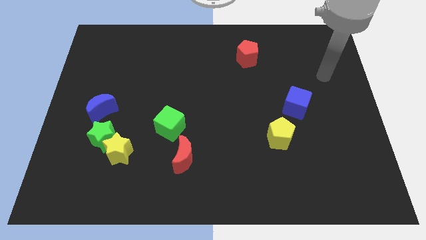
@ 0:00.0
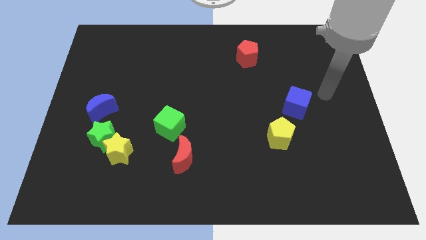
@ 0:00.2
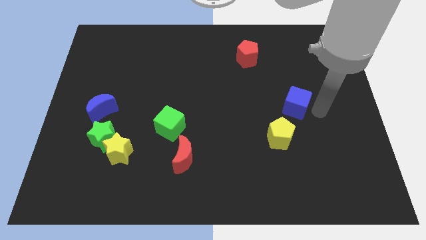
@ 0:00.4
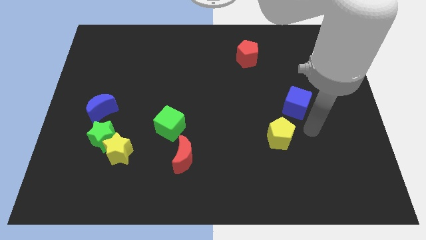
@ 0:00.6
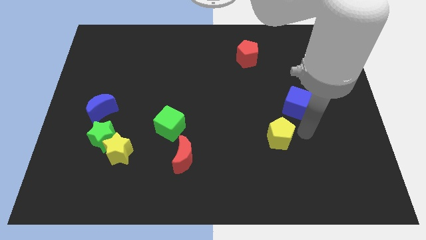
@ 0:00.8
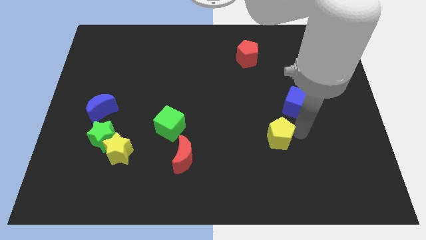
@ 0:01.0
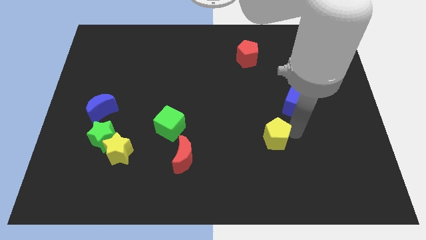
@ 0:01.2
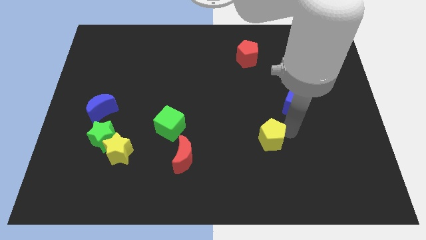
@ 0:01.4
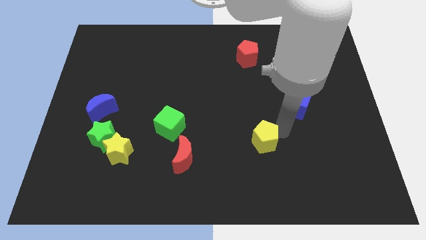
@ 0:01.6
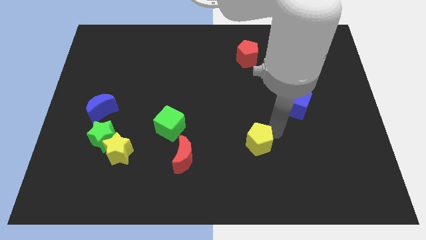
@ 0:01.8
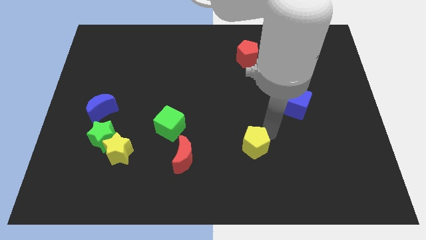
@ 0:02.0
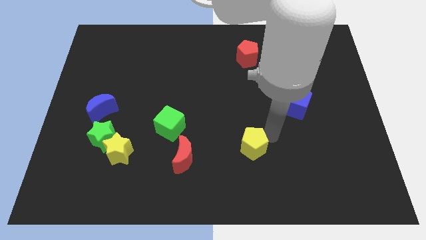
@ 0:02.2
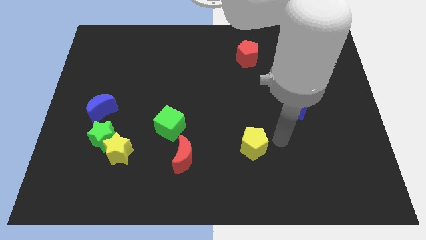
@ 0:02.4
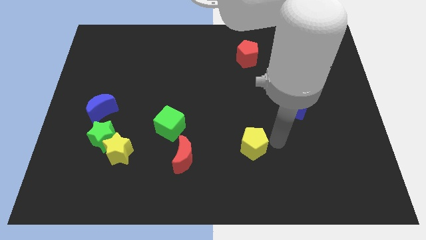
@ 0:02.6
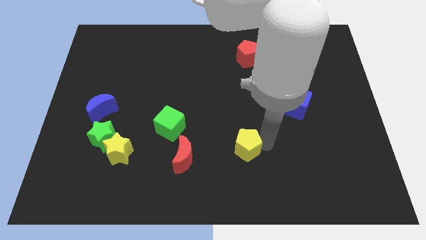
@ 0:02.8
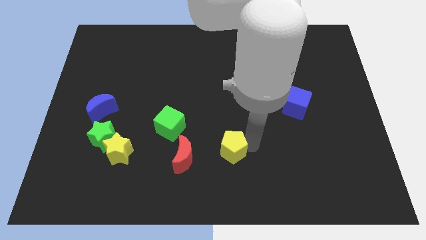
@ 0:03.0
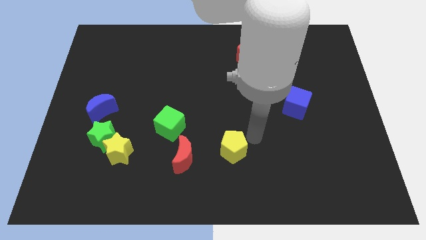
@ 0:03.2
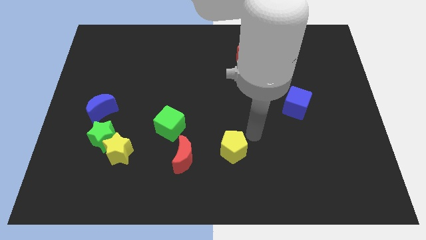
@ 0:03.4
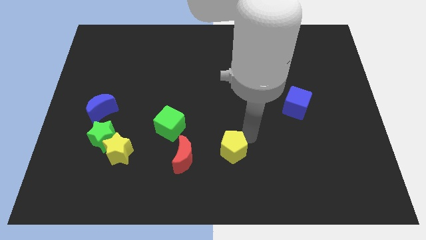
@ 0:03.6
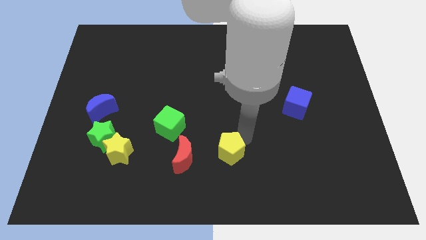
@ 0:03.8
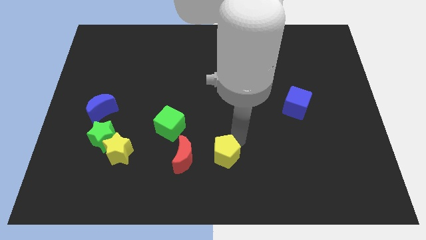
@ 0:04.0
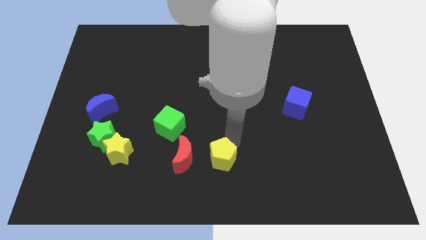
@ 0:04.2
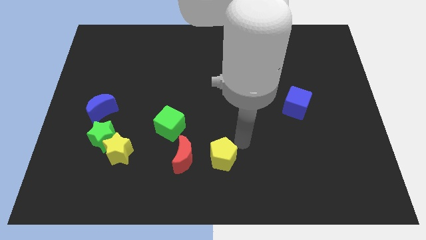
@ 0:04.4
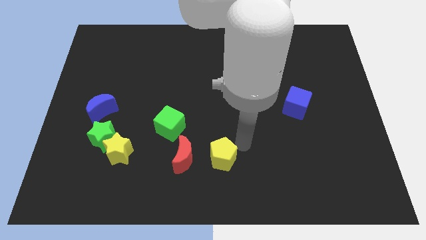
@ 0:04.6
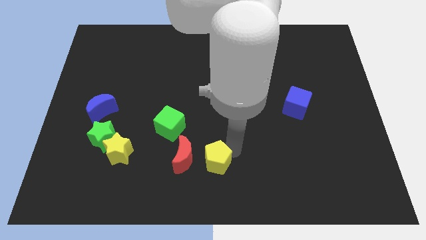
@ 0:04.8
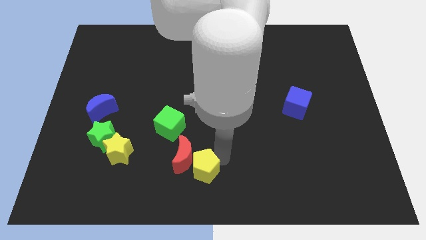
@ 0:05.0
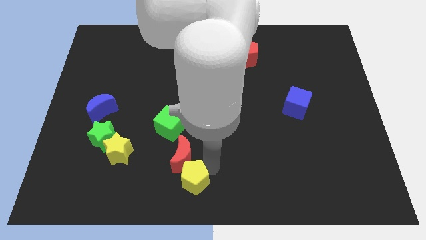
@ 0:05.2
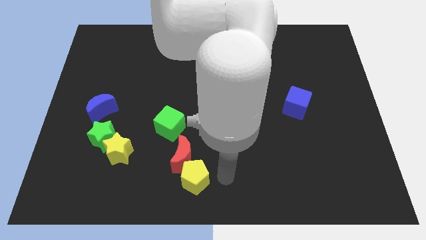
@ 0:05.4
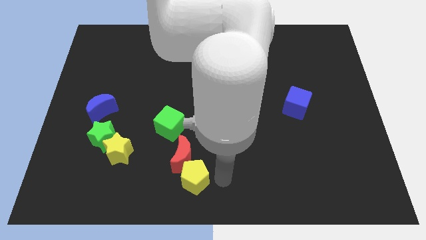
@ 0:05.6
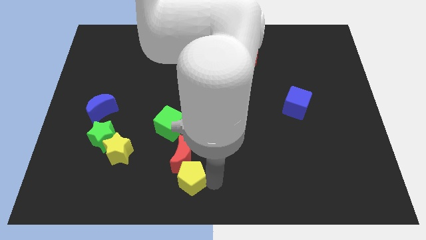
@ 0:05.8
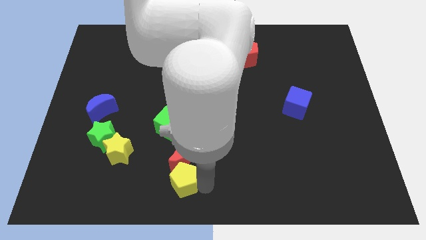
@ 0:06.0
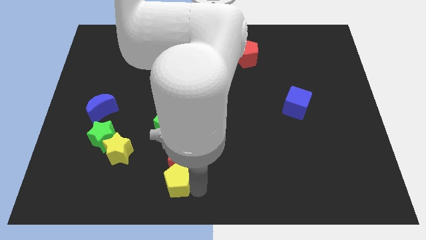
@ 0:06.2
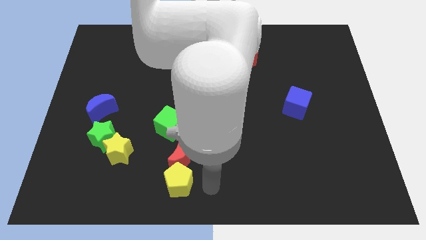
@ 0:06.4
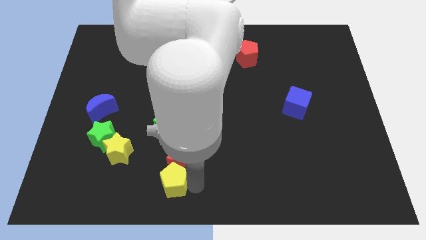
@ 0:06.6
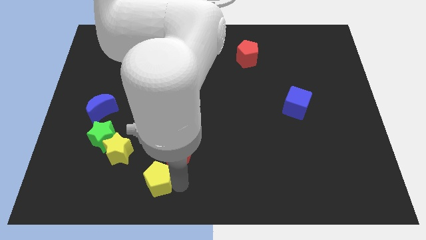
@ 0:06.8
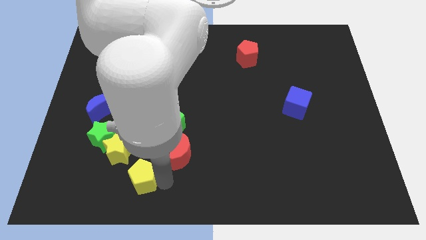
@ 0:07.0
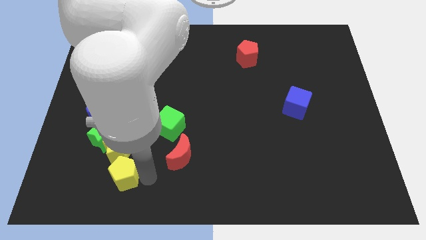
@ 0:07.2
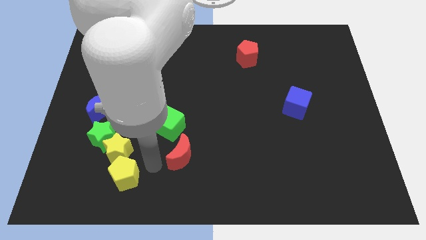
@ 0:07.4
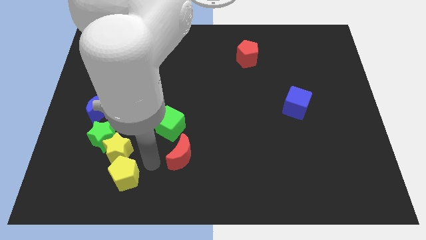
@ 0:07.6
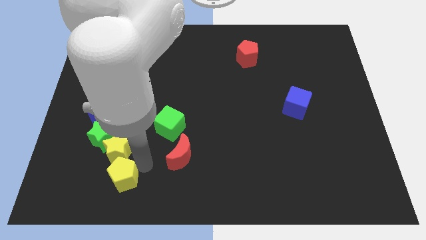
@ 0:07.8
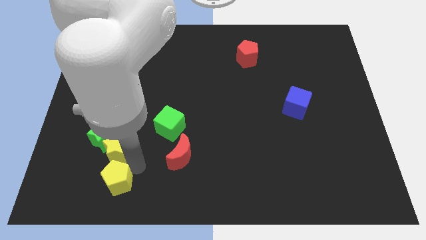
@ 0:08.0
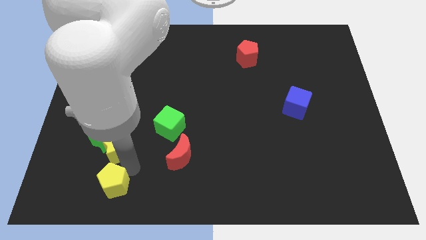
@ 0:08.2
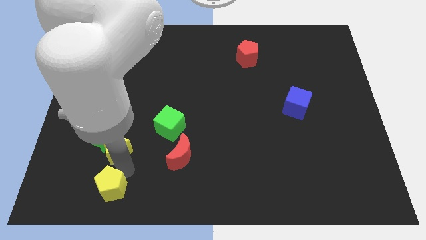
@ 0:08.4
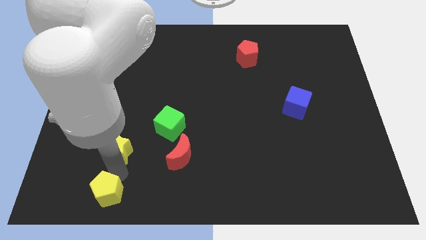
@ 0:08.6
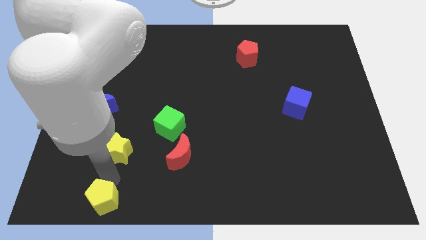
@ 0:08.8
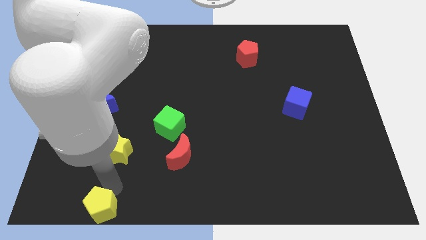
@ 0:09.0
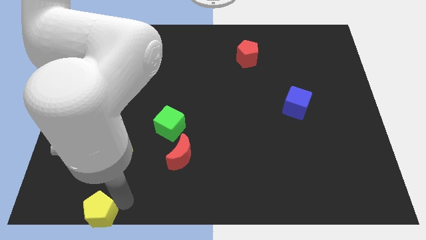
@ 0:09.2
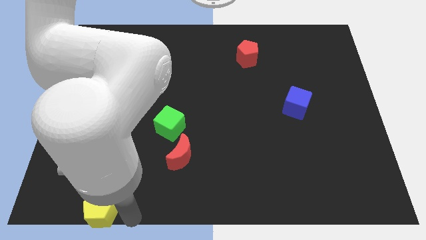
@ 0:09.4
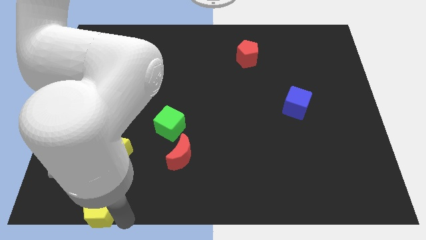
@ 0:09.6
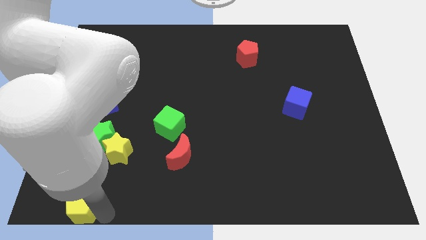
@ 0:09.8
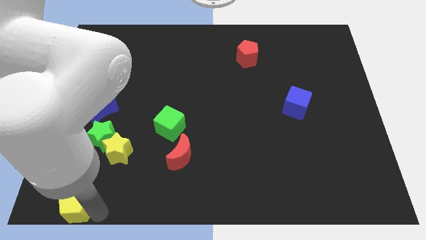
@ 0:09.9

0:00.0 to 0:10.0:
slide the yellow pentagon to the lower left corner

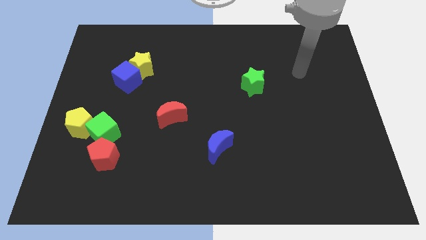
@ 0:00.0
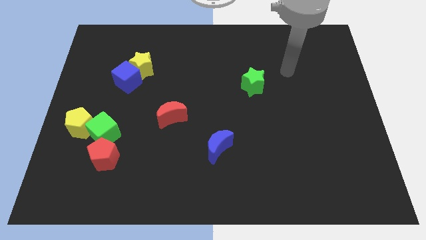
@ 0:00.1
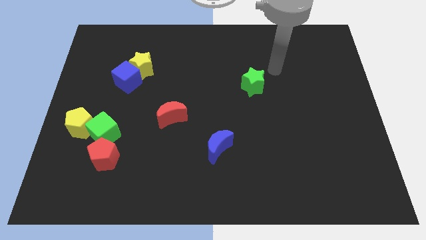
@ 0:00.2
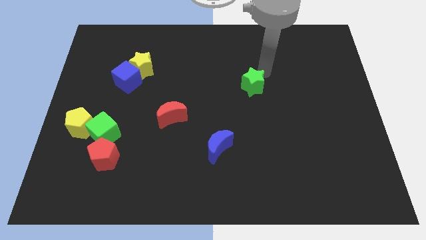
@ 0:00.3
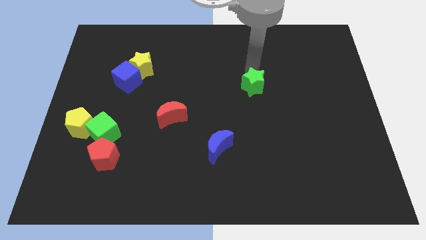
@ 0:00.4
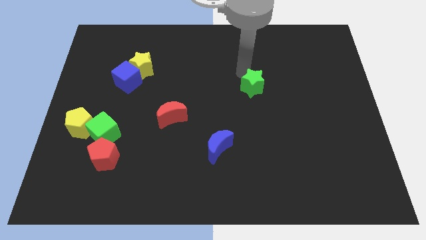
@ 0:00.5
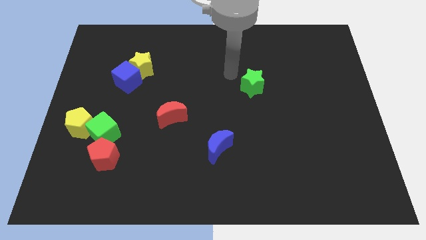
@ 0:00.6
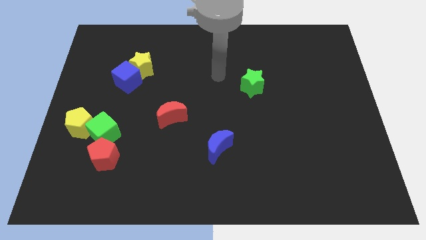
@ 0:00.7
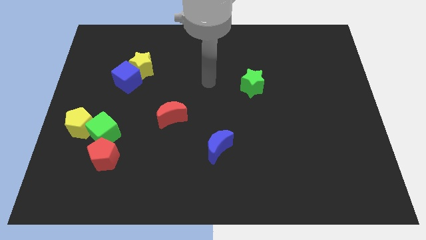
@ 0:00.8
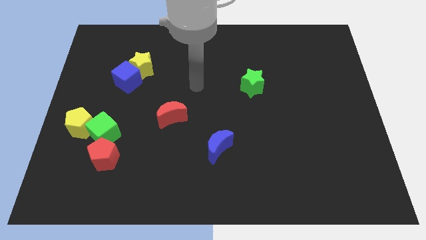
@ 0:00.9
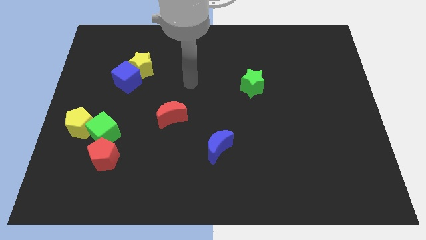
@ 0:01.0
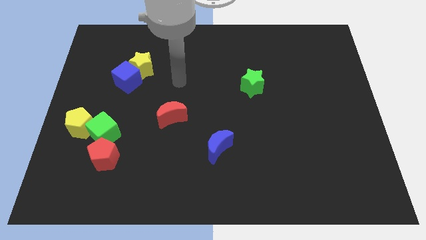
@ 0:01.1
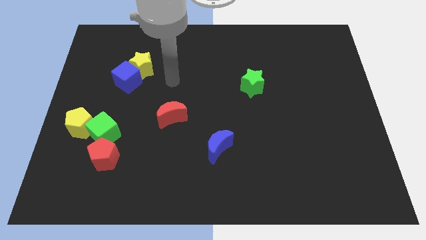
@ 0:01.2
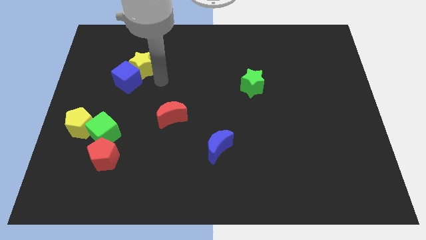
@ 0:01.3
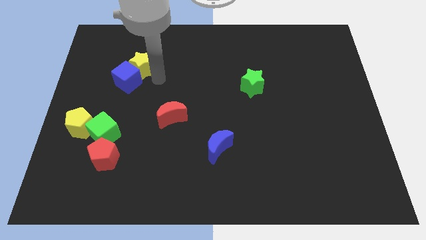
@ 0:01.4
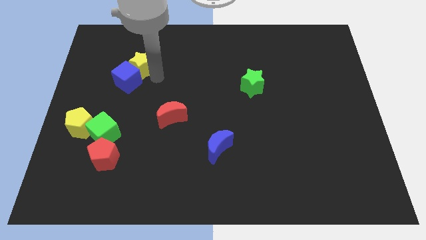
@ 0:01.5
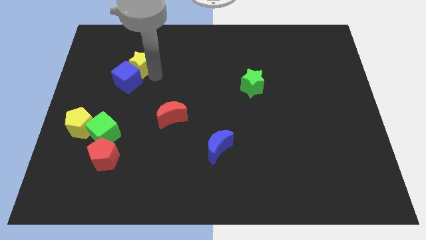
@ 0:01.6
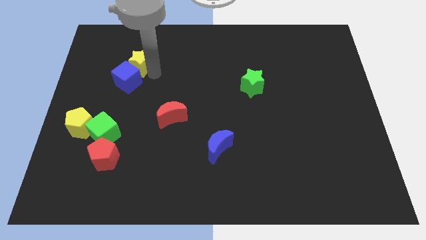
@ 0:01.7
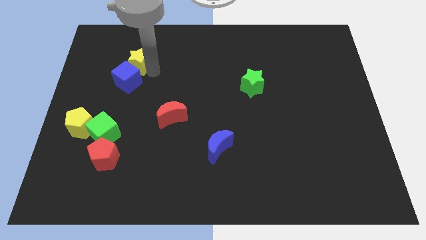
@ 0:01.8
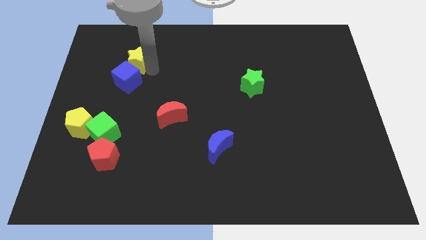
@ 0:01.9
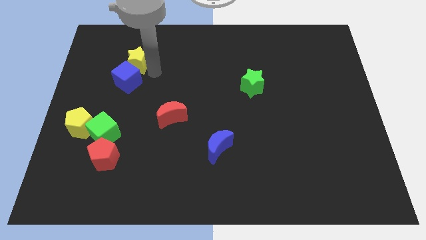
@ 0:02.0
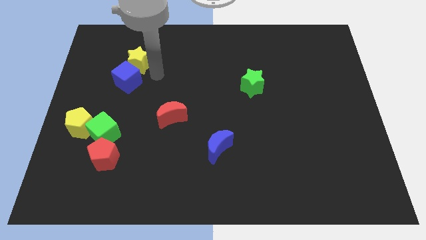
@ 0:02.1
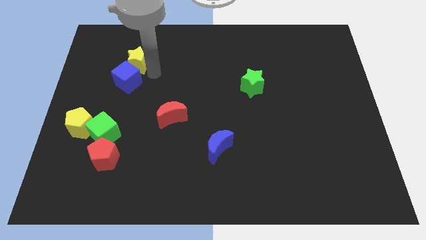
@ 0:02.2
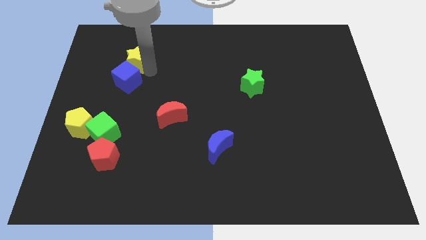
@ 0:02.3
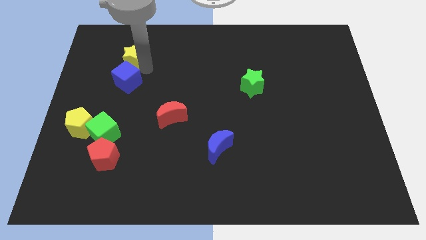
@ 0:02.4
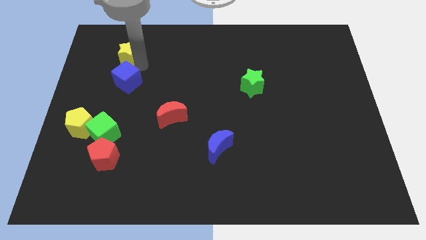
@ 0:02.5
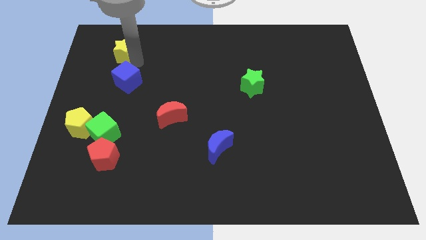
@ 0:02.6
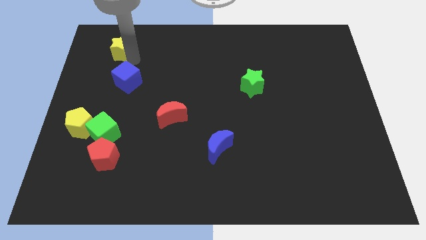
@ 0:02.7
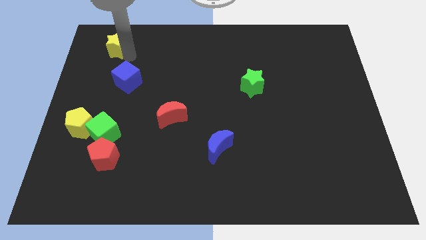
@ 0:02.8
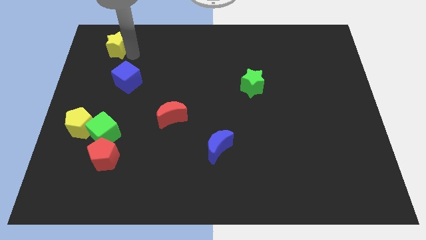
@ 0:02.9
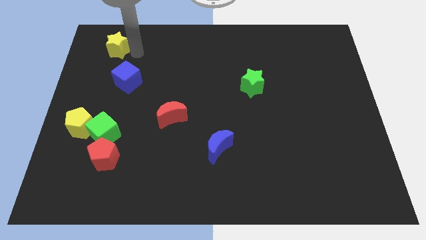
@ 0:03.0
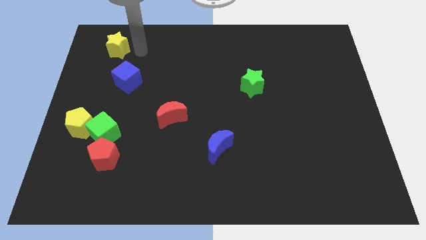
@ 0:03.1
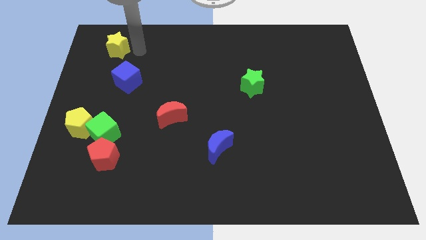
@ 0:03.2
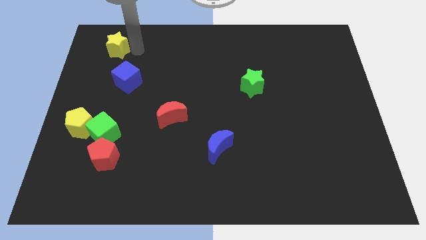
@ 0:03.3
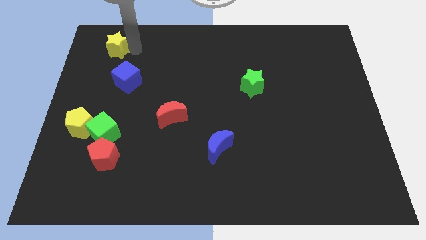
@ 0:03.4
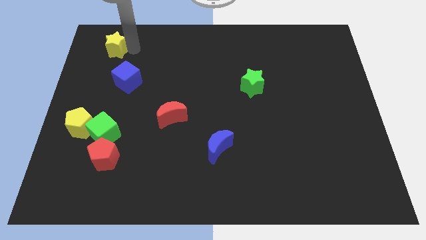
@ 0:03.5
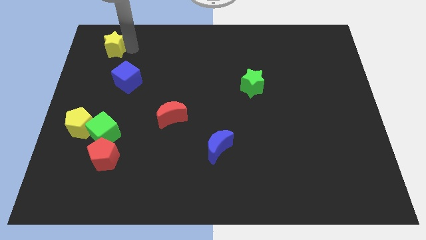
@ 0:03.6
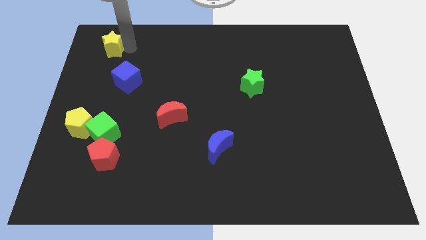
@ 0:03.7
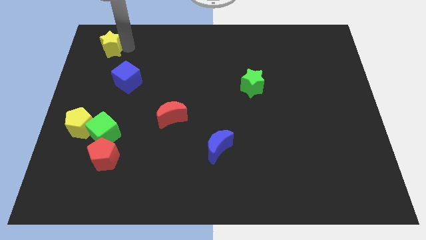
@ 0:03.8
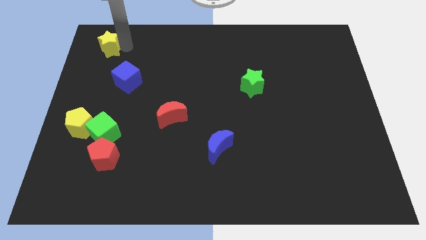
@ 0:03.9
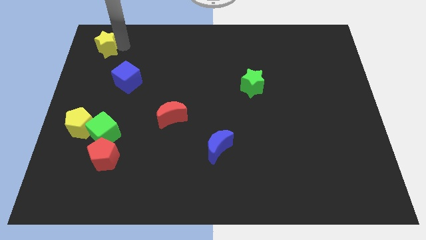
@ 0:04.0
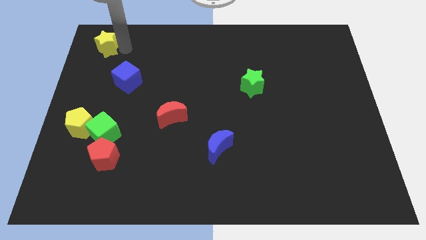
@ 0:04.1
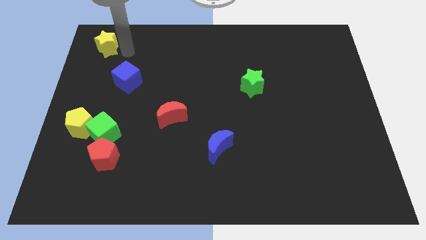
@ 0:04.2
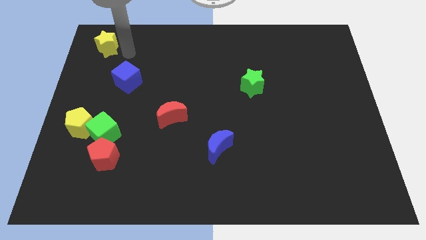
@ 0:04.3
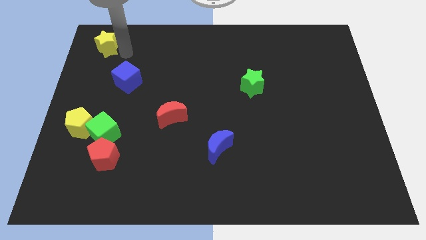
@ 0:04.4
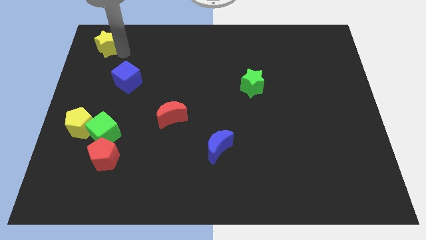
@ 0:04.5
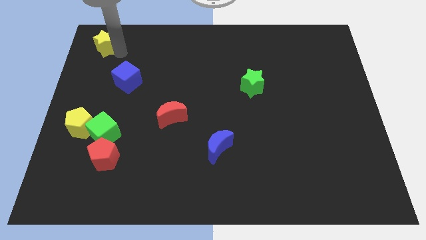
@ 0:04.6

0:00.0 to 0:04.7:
put the yellow star to the top left of the board
